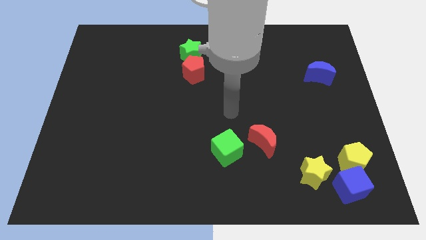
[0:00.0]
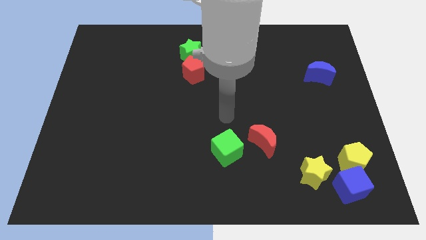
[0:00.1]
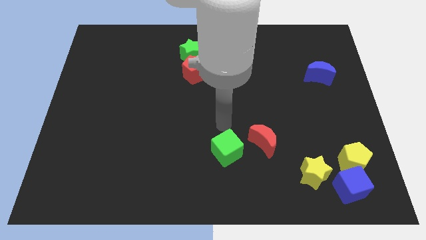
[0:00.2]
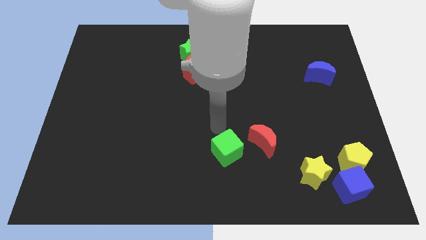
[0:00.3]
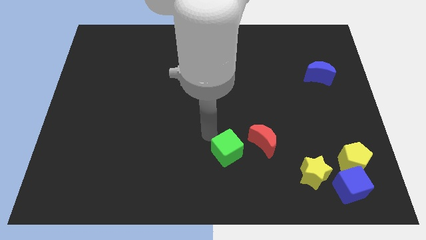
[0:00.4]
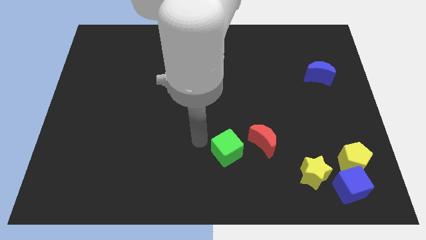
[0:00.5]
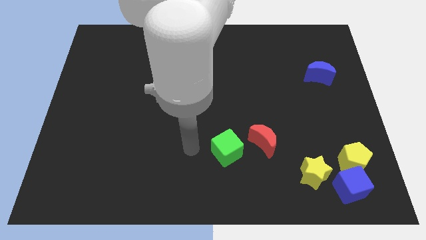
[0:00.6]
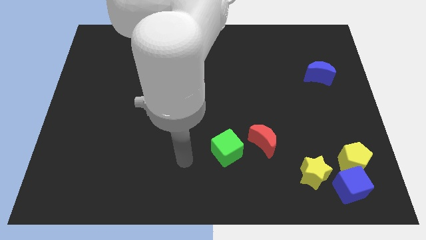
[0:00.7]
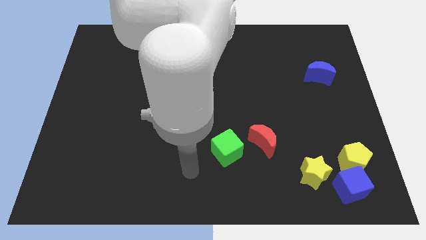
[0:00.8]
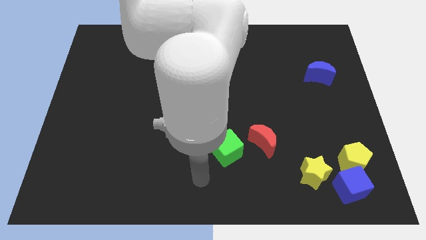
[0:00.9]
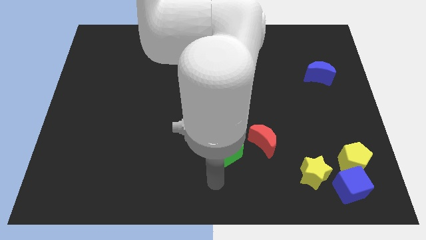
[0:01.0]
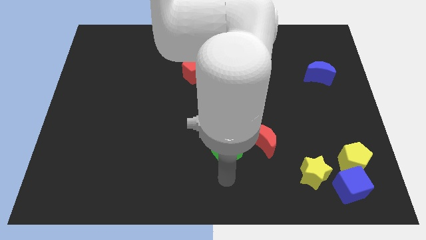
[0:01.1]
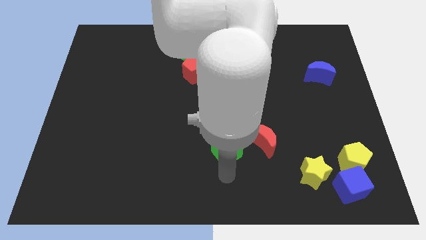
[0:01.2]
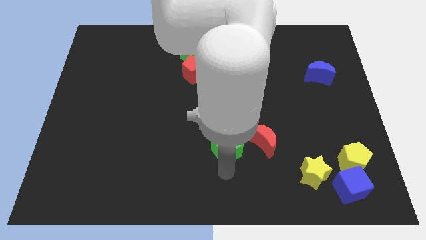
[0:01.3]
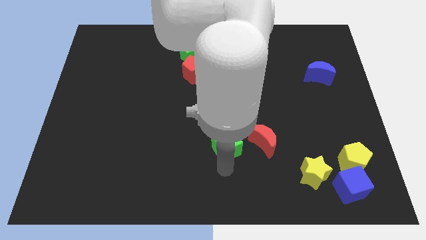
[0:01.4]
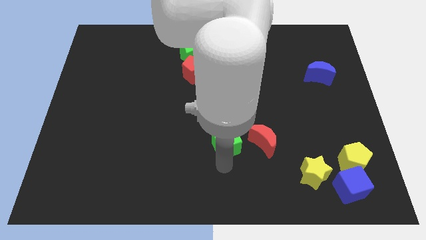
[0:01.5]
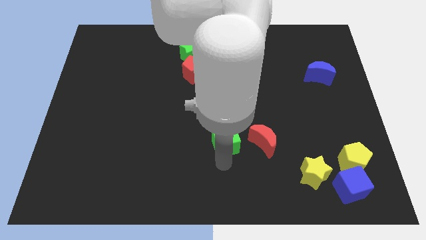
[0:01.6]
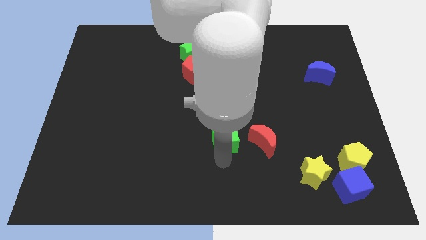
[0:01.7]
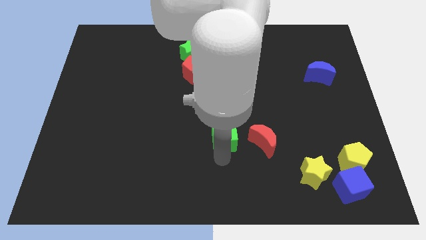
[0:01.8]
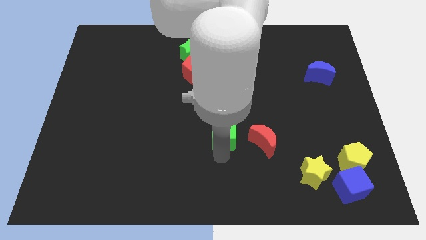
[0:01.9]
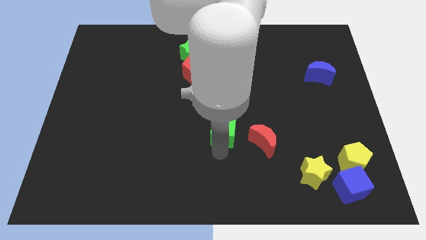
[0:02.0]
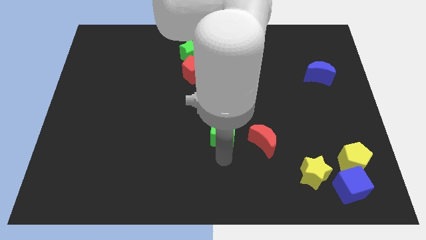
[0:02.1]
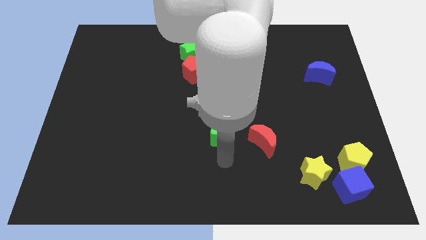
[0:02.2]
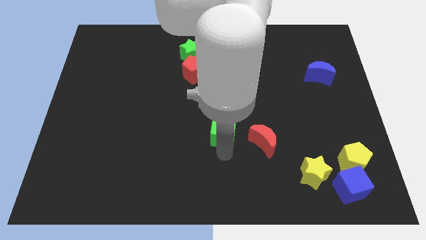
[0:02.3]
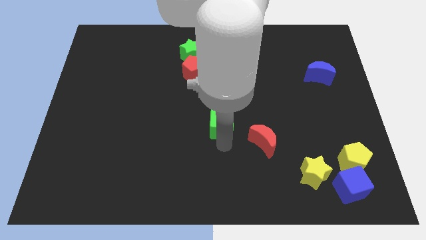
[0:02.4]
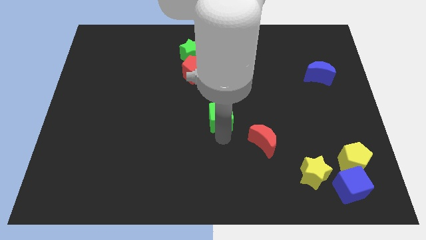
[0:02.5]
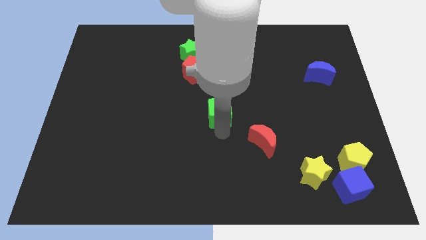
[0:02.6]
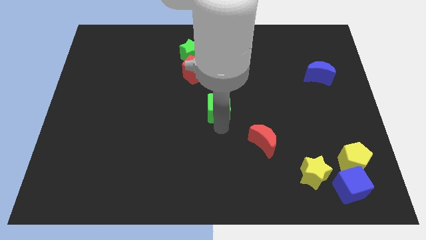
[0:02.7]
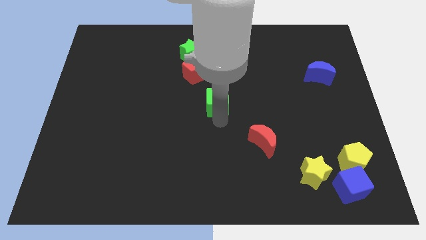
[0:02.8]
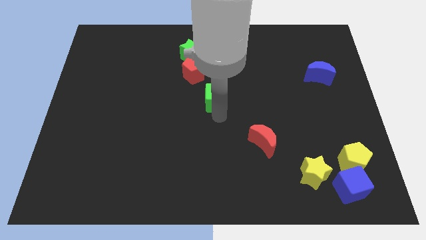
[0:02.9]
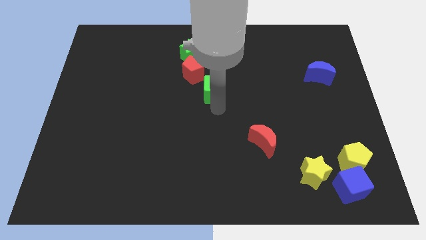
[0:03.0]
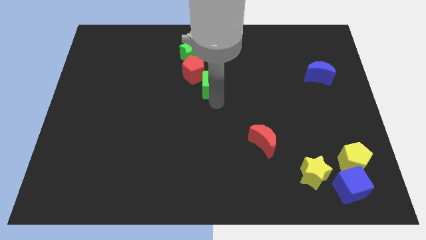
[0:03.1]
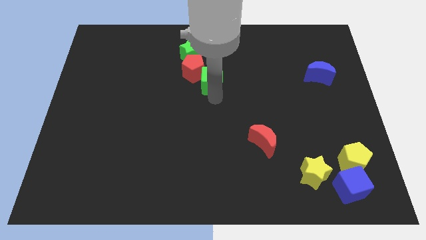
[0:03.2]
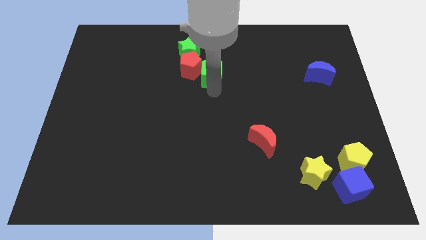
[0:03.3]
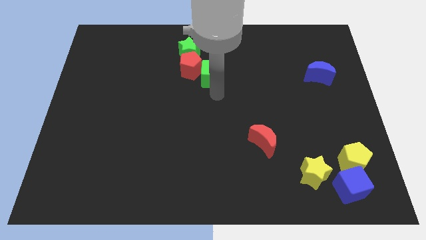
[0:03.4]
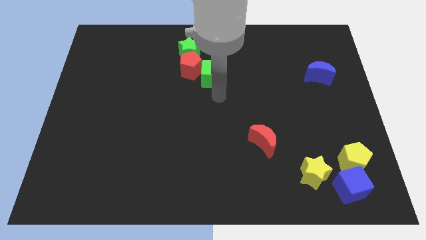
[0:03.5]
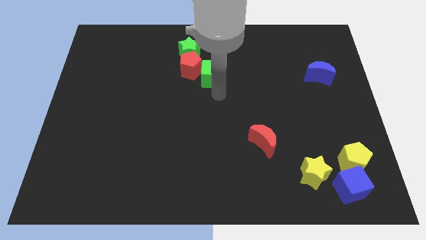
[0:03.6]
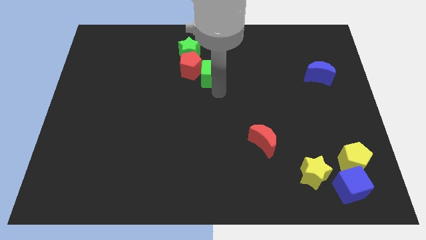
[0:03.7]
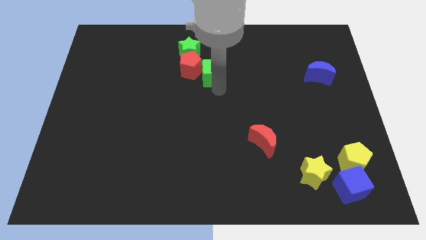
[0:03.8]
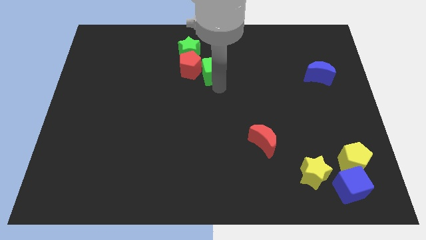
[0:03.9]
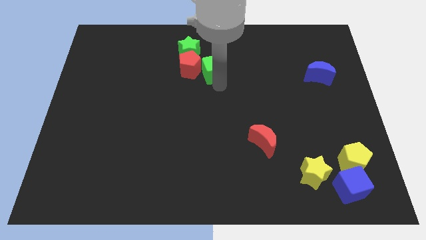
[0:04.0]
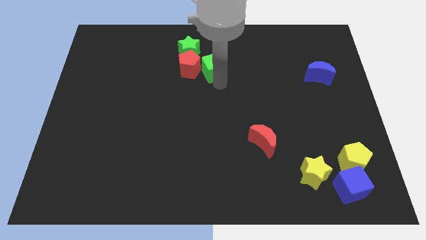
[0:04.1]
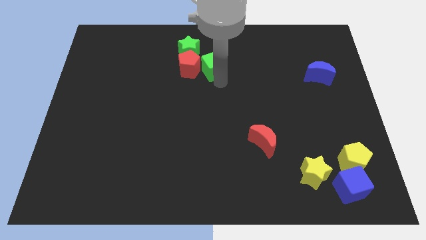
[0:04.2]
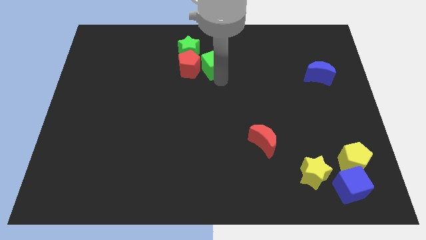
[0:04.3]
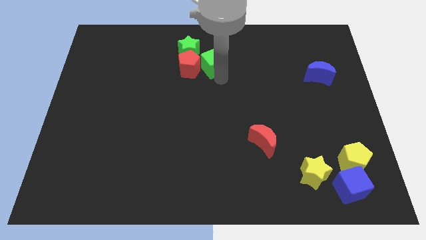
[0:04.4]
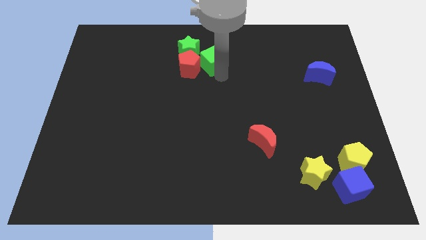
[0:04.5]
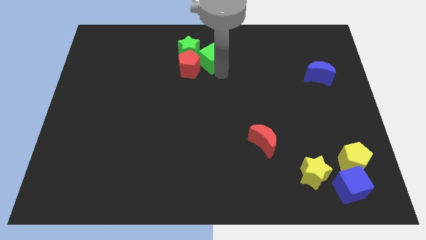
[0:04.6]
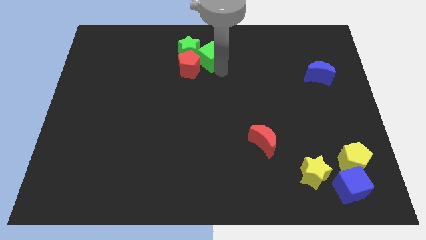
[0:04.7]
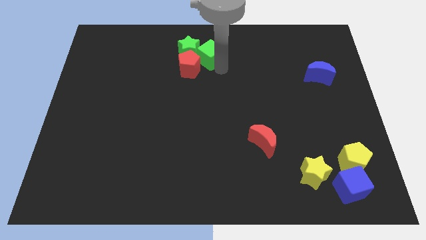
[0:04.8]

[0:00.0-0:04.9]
push the green cube to the green star

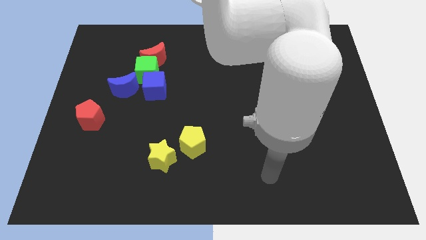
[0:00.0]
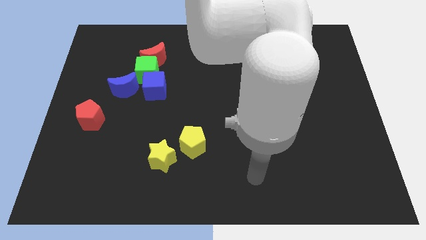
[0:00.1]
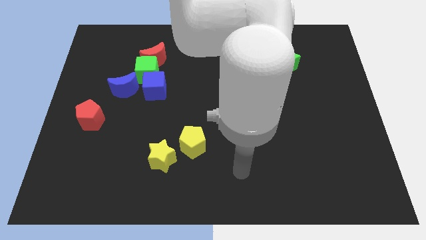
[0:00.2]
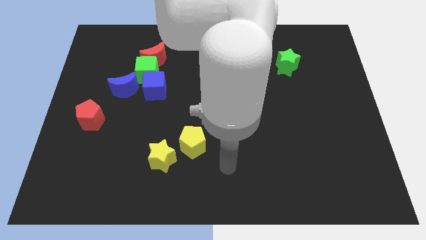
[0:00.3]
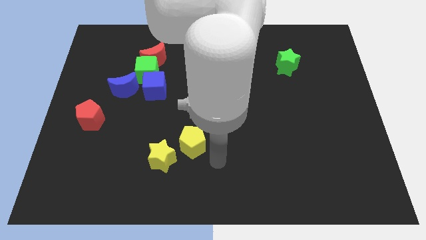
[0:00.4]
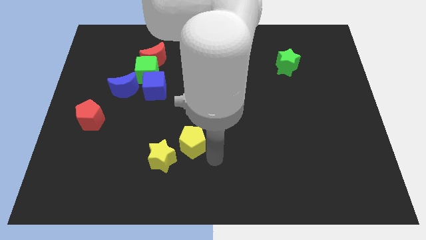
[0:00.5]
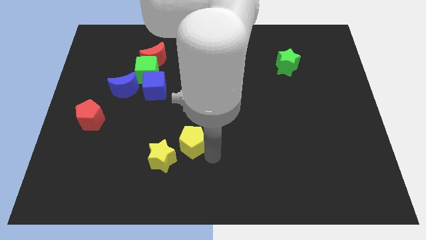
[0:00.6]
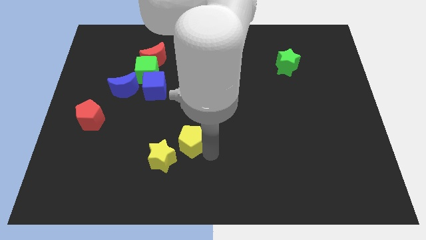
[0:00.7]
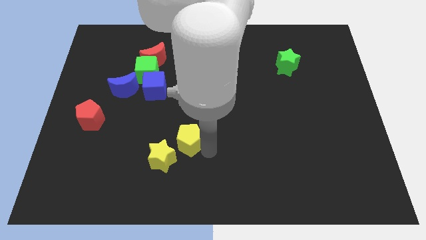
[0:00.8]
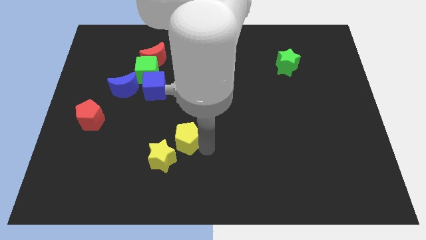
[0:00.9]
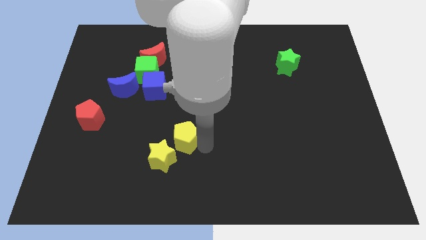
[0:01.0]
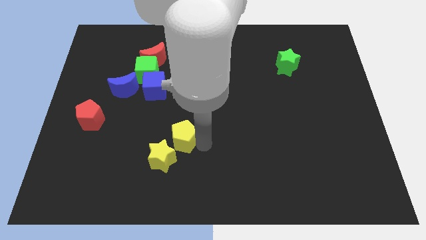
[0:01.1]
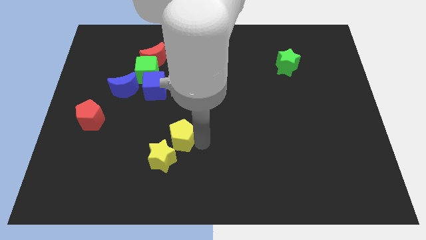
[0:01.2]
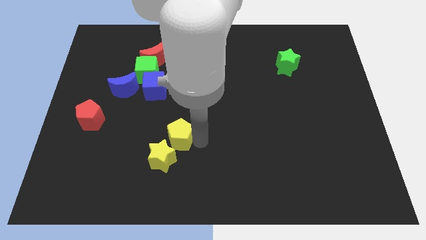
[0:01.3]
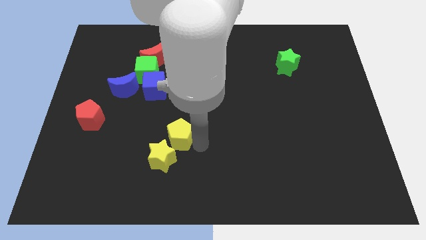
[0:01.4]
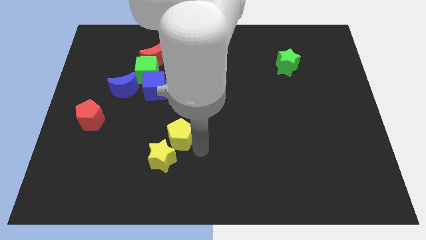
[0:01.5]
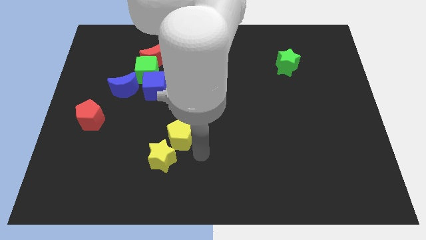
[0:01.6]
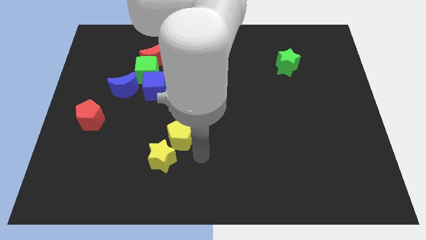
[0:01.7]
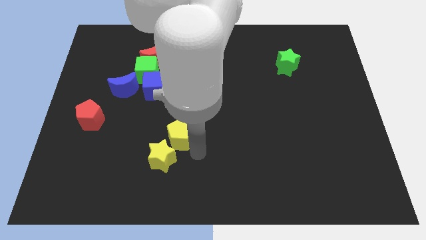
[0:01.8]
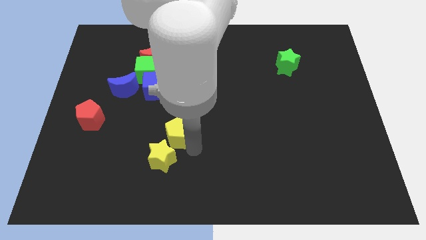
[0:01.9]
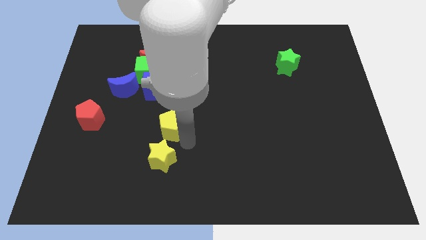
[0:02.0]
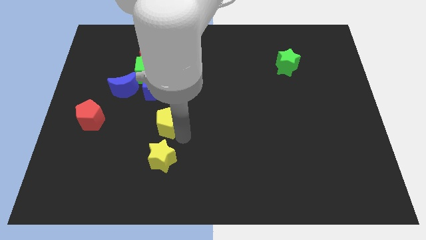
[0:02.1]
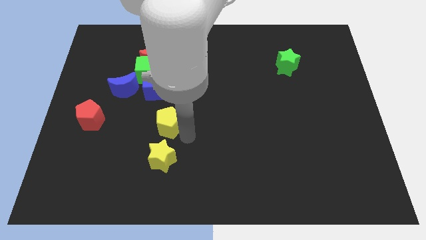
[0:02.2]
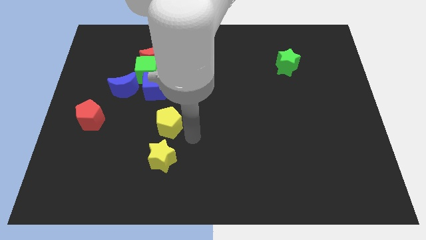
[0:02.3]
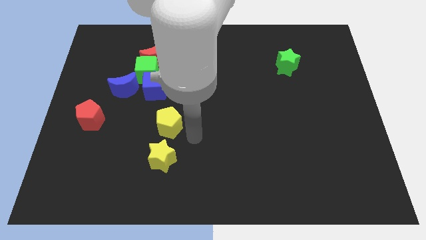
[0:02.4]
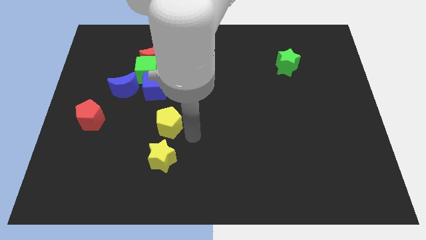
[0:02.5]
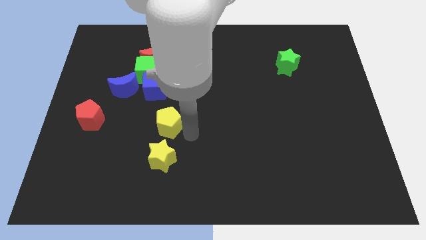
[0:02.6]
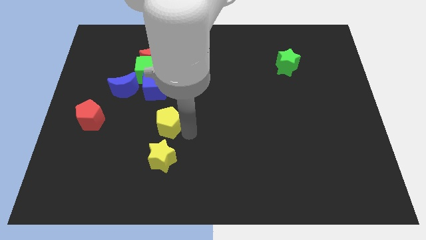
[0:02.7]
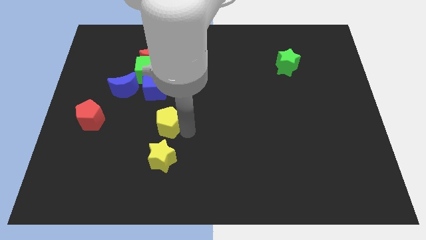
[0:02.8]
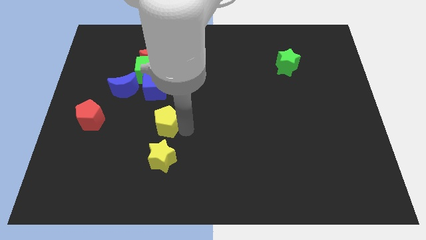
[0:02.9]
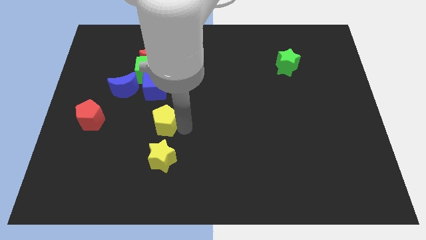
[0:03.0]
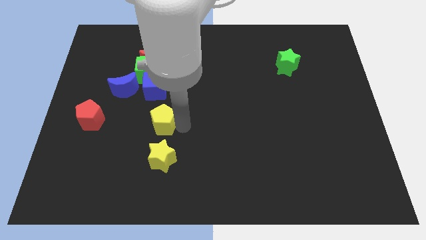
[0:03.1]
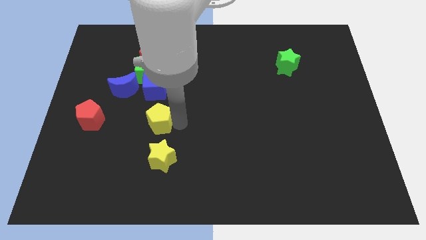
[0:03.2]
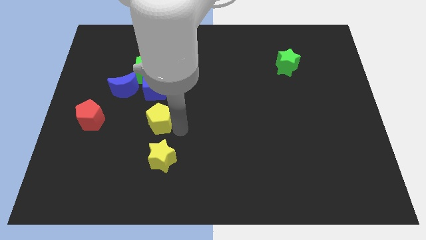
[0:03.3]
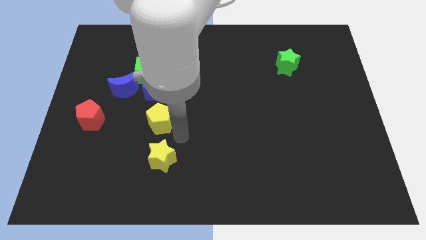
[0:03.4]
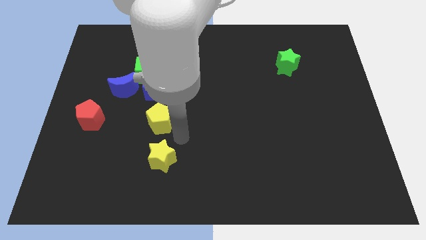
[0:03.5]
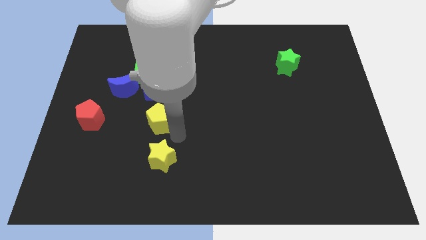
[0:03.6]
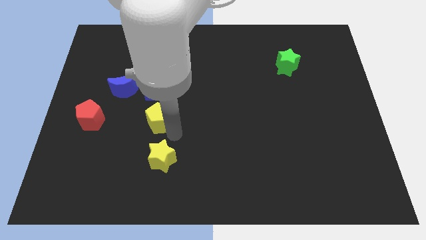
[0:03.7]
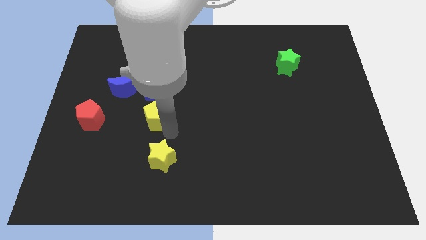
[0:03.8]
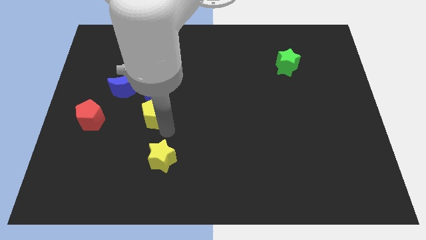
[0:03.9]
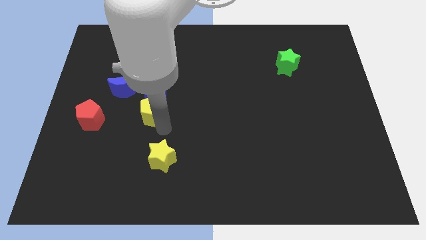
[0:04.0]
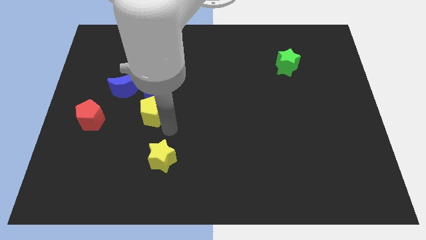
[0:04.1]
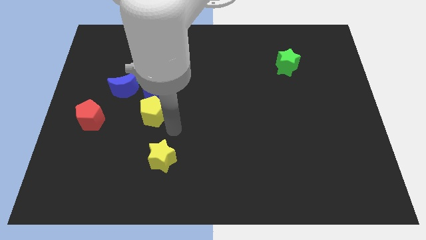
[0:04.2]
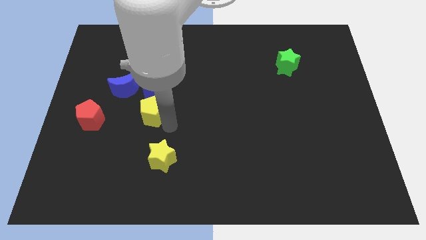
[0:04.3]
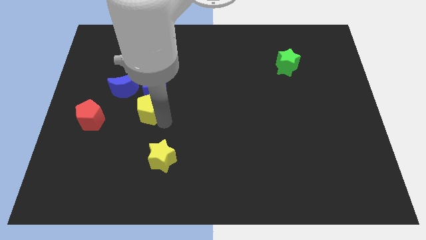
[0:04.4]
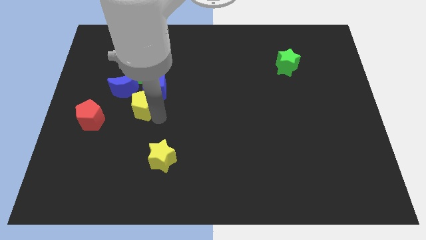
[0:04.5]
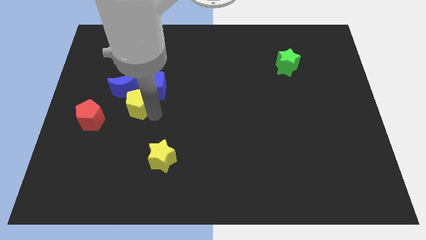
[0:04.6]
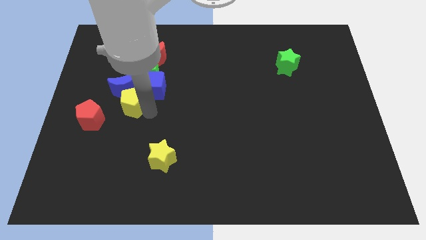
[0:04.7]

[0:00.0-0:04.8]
put the yellow pentagon close to the blue moon
